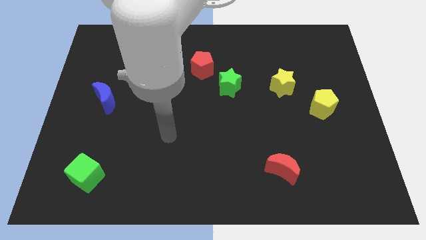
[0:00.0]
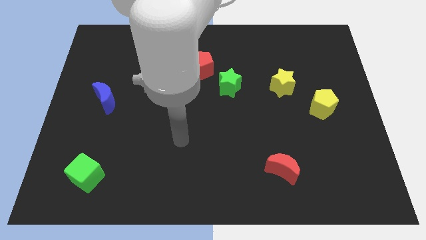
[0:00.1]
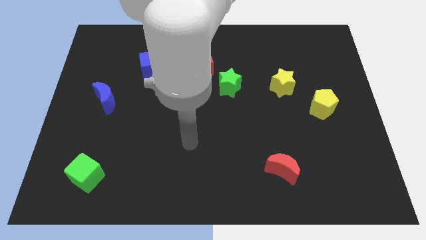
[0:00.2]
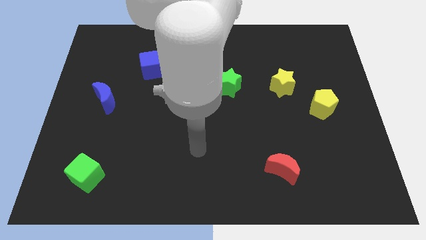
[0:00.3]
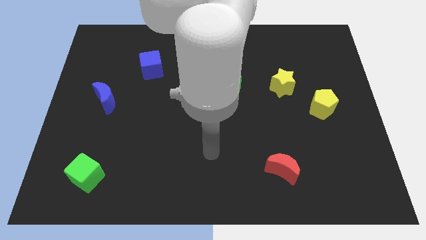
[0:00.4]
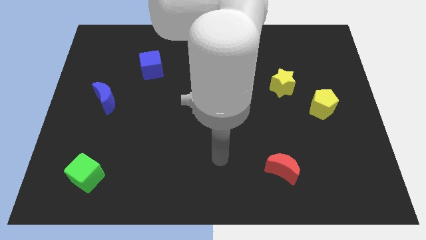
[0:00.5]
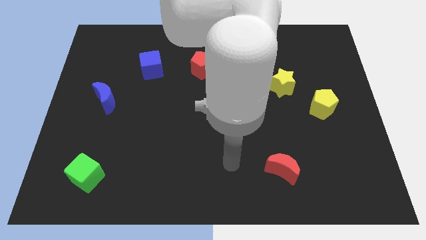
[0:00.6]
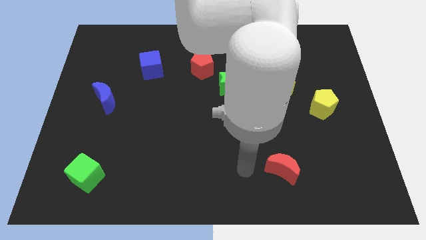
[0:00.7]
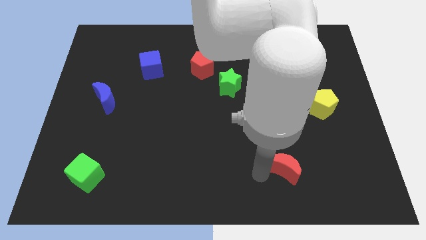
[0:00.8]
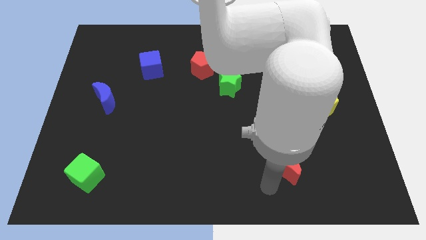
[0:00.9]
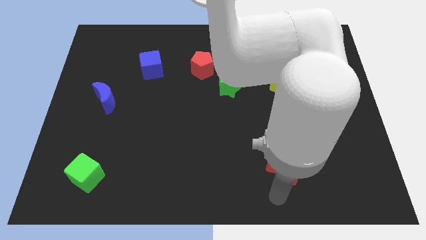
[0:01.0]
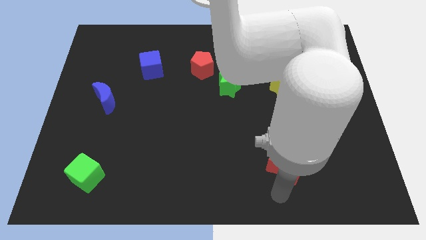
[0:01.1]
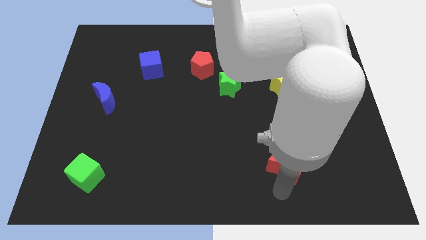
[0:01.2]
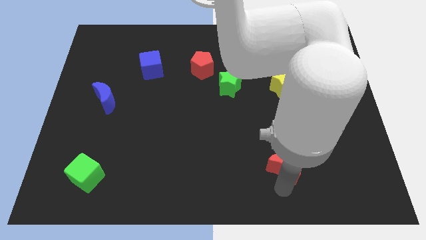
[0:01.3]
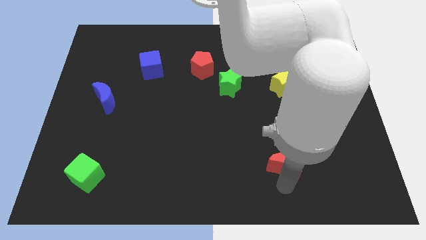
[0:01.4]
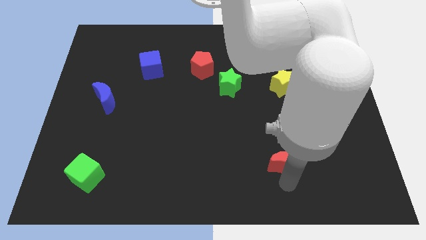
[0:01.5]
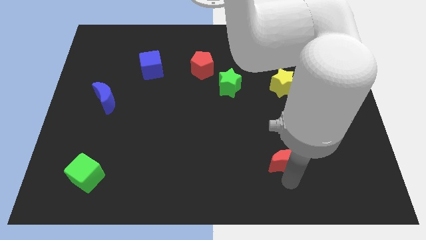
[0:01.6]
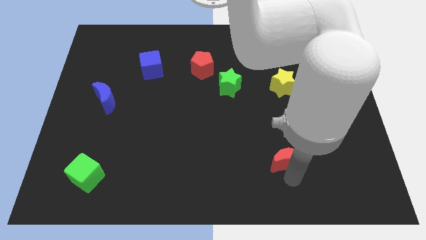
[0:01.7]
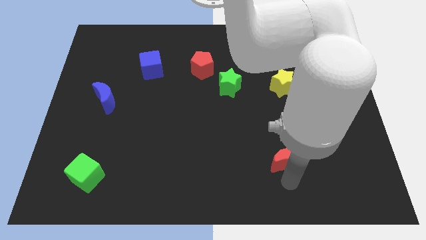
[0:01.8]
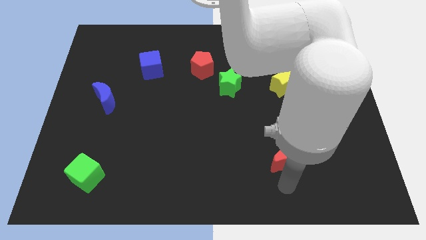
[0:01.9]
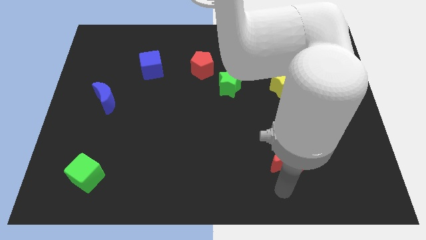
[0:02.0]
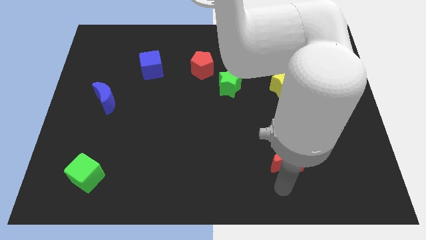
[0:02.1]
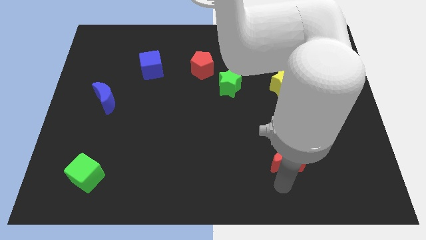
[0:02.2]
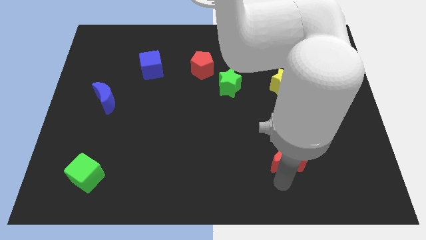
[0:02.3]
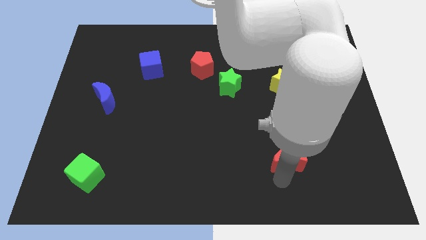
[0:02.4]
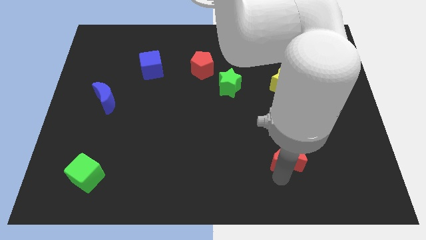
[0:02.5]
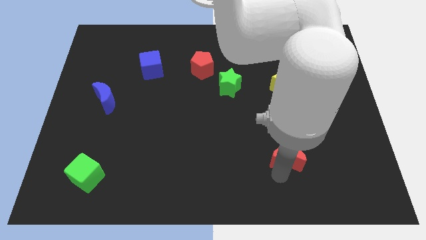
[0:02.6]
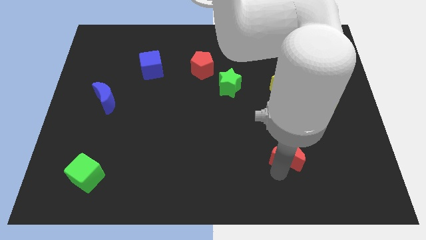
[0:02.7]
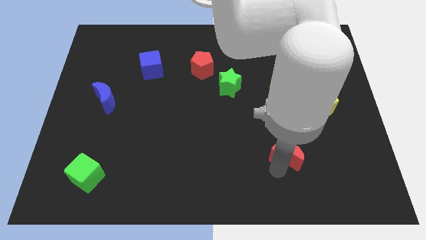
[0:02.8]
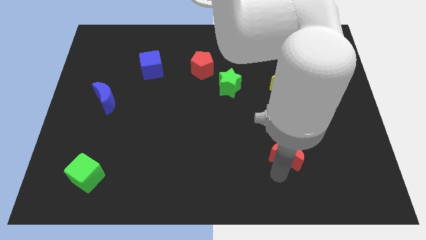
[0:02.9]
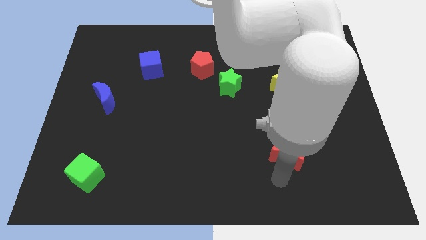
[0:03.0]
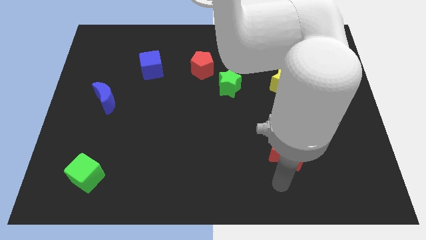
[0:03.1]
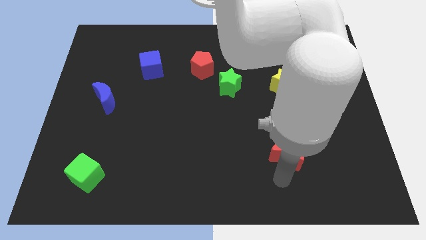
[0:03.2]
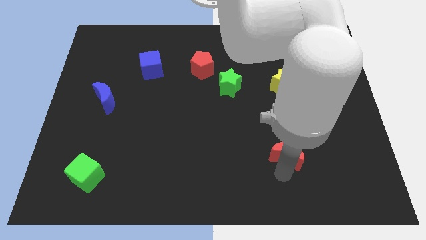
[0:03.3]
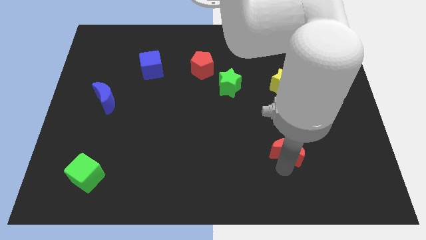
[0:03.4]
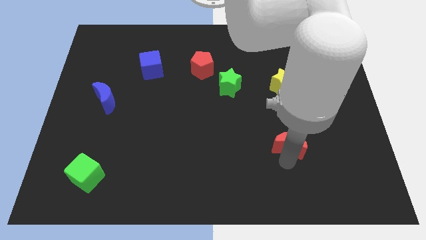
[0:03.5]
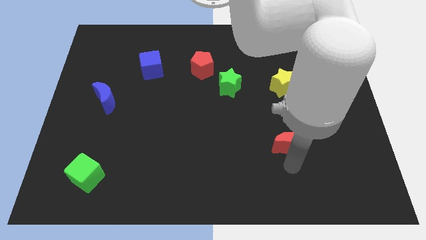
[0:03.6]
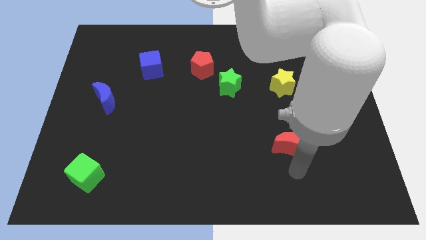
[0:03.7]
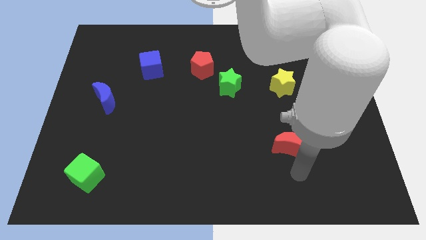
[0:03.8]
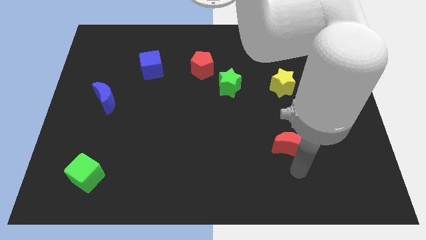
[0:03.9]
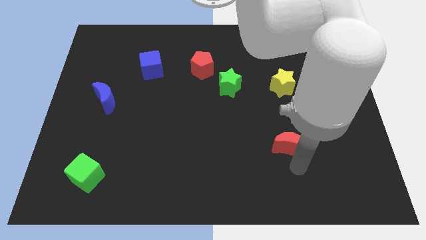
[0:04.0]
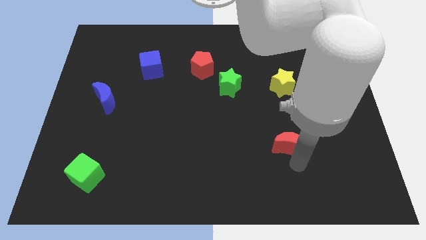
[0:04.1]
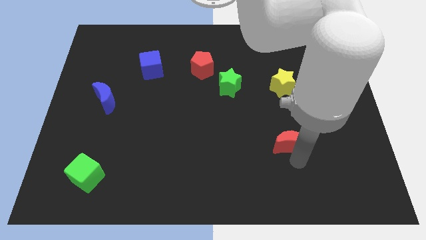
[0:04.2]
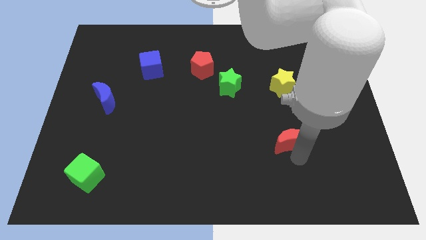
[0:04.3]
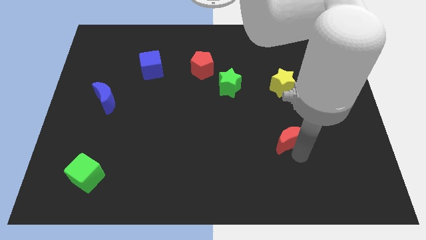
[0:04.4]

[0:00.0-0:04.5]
slide the red moon a little up

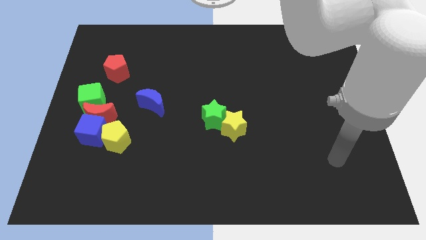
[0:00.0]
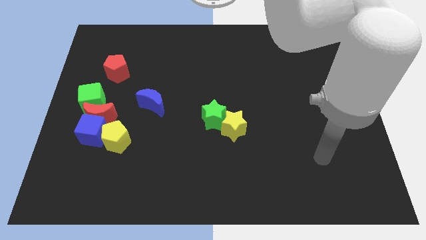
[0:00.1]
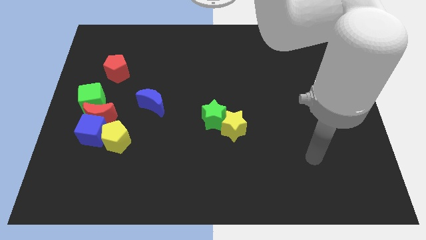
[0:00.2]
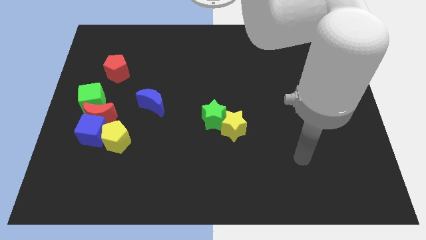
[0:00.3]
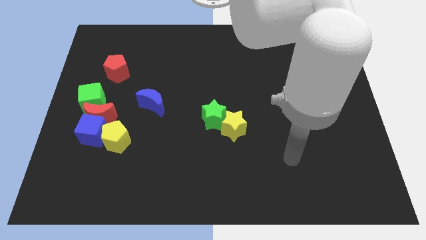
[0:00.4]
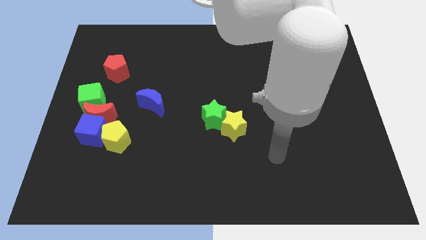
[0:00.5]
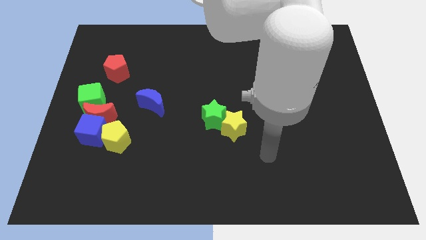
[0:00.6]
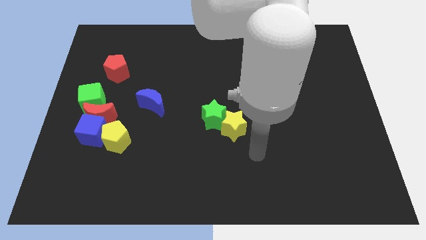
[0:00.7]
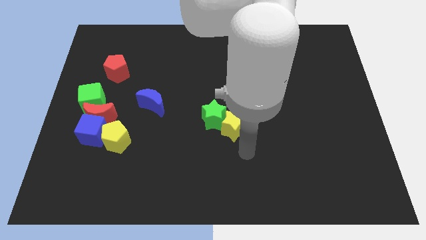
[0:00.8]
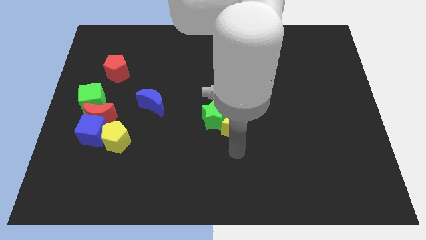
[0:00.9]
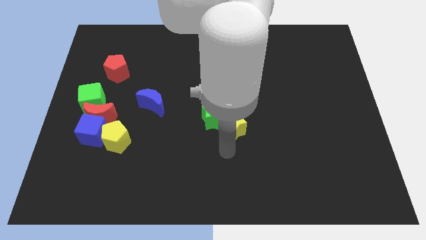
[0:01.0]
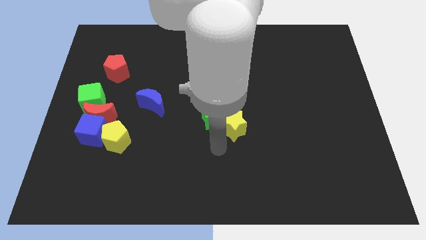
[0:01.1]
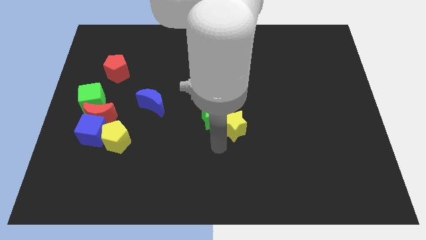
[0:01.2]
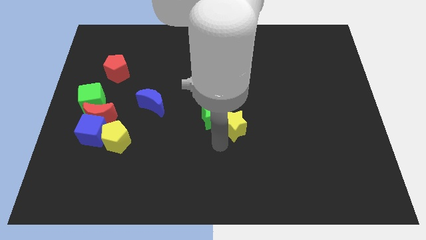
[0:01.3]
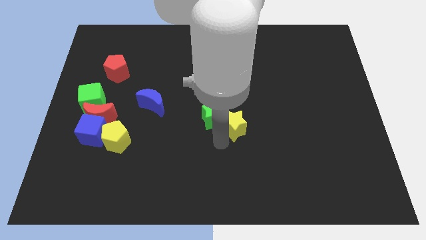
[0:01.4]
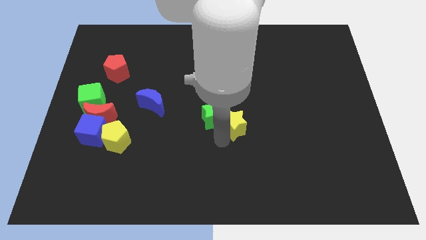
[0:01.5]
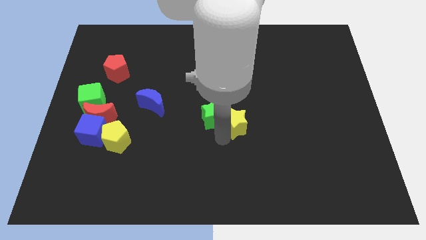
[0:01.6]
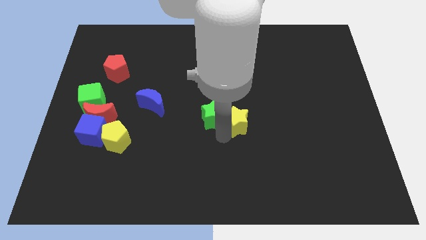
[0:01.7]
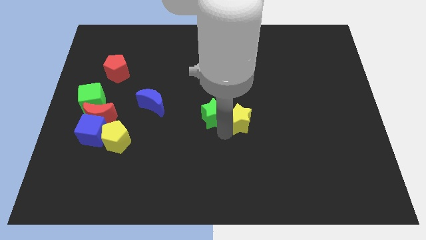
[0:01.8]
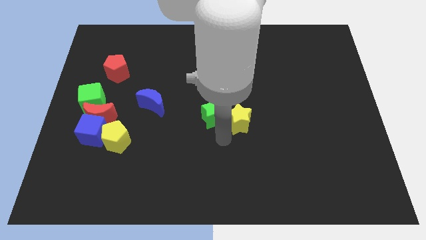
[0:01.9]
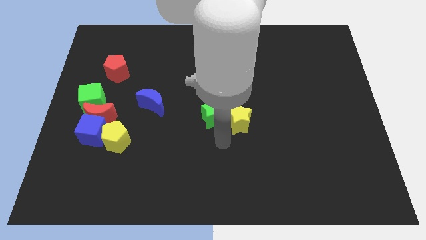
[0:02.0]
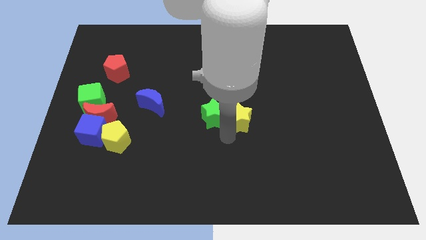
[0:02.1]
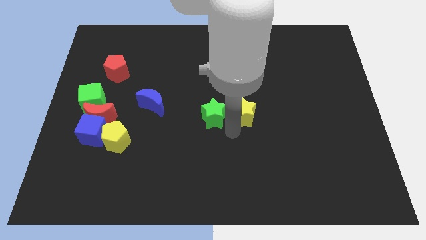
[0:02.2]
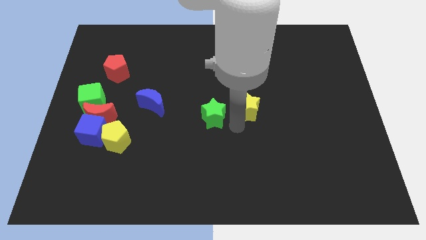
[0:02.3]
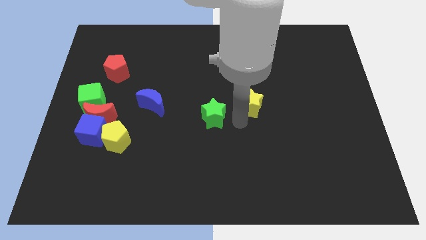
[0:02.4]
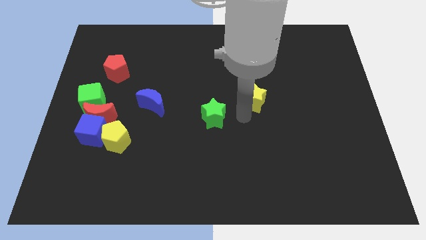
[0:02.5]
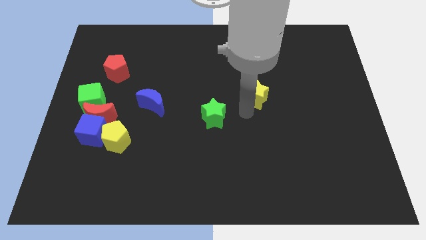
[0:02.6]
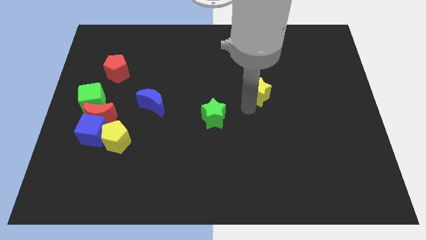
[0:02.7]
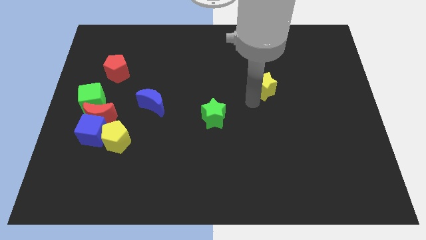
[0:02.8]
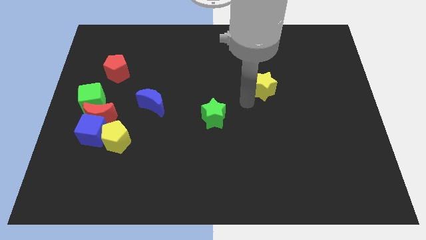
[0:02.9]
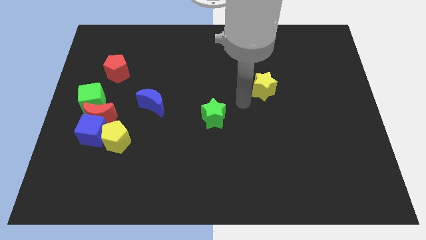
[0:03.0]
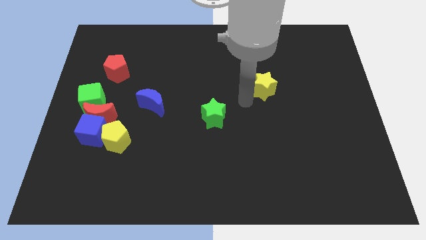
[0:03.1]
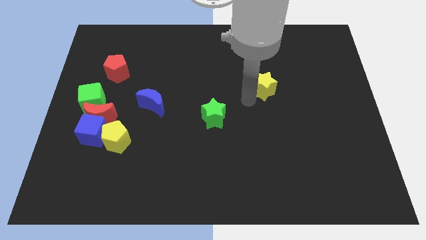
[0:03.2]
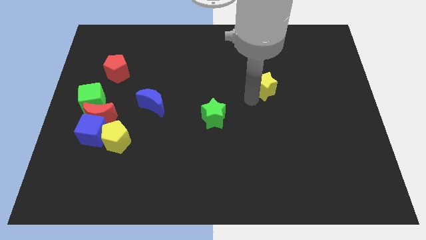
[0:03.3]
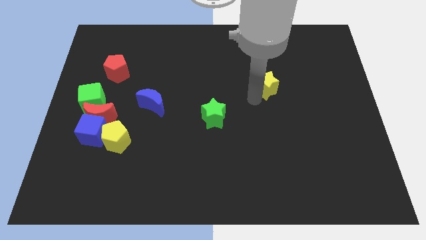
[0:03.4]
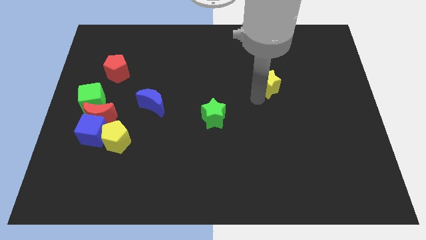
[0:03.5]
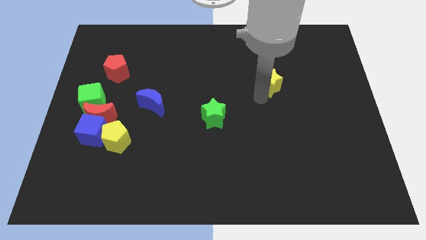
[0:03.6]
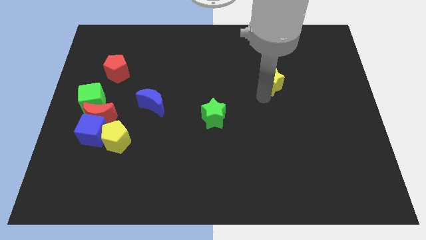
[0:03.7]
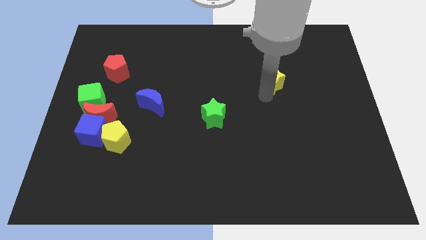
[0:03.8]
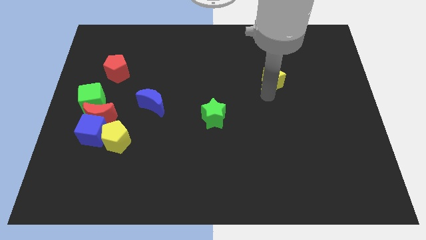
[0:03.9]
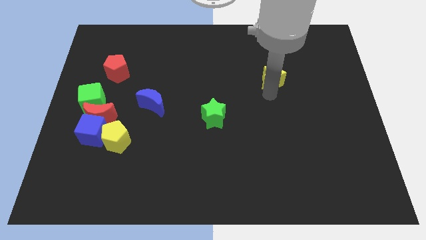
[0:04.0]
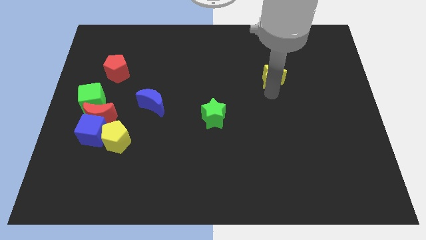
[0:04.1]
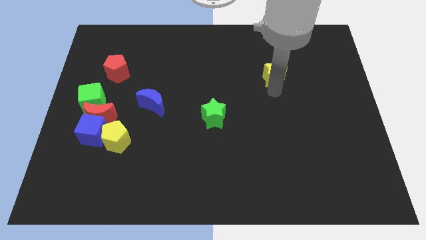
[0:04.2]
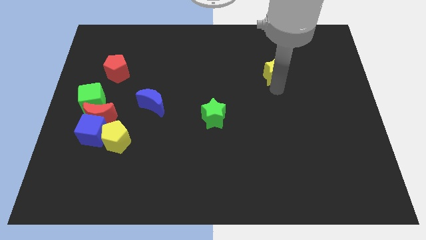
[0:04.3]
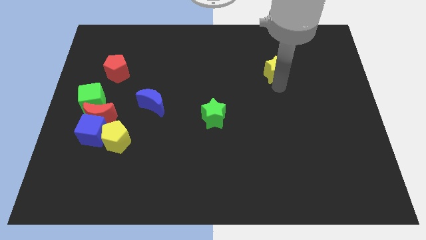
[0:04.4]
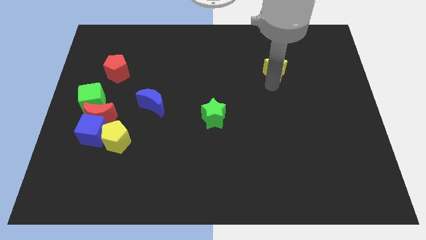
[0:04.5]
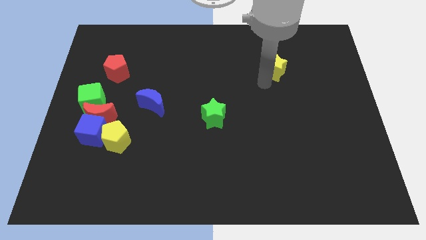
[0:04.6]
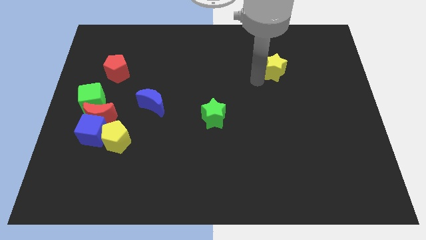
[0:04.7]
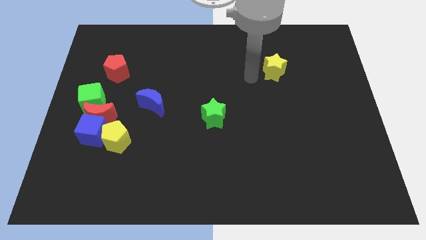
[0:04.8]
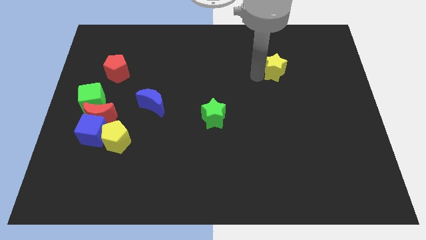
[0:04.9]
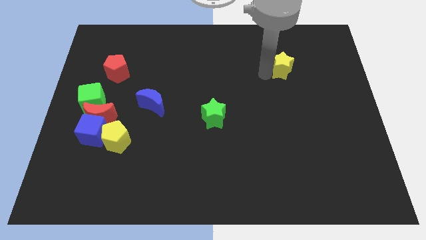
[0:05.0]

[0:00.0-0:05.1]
push the yellow star upwards and to the right
